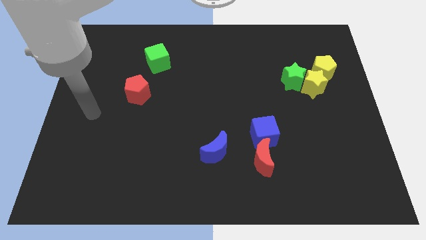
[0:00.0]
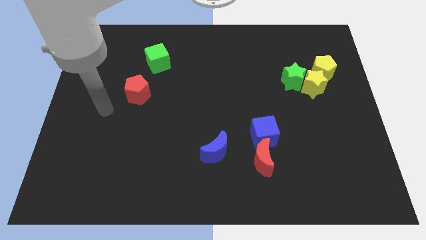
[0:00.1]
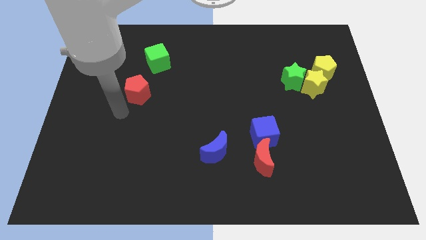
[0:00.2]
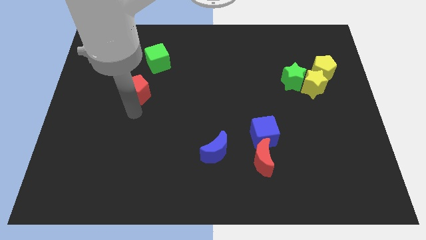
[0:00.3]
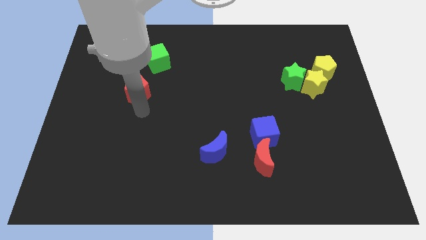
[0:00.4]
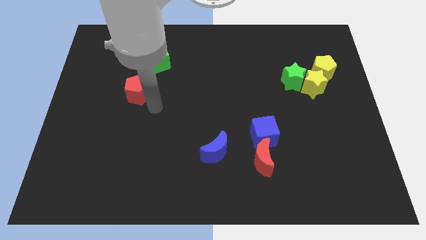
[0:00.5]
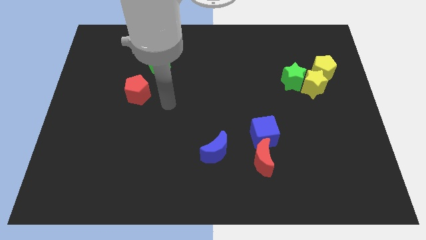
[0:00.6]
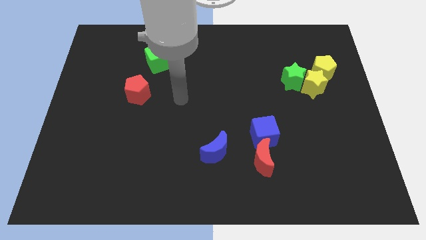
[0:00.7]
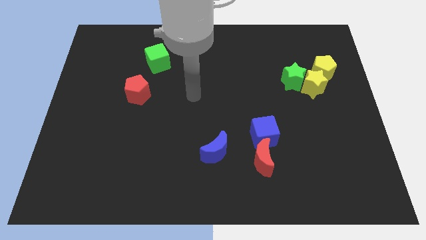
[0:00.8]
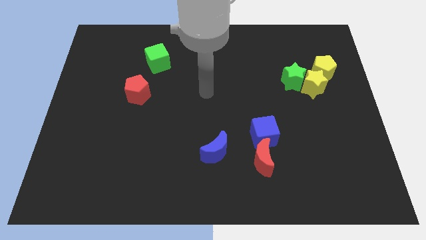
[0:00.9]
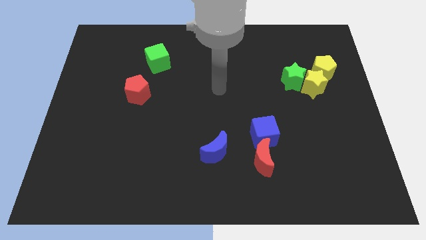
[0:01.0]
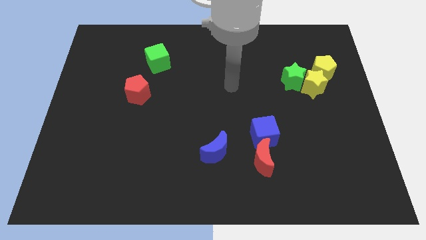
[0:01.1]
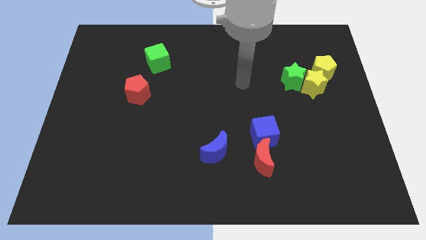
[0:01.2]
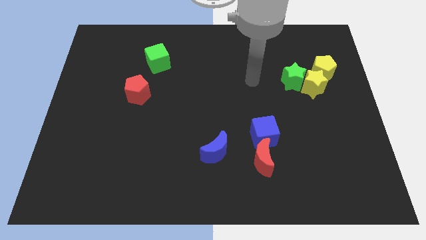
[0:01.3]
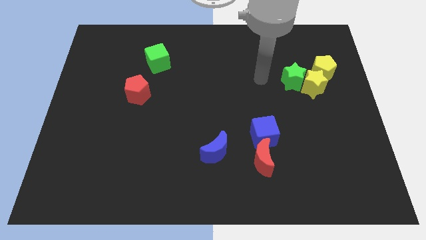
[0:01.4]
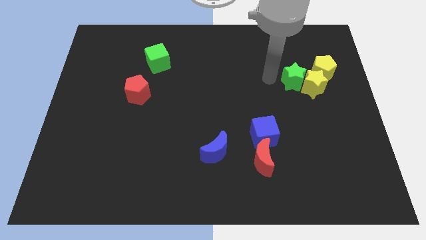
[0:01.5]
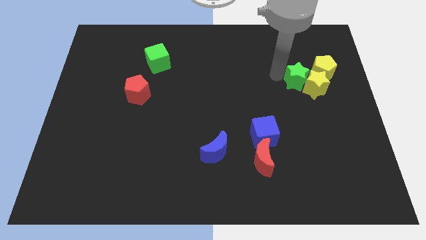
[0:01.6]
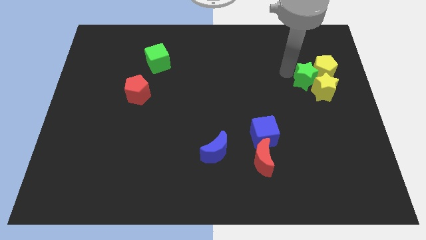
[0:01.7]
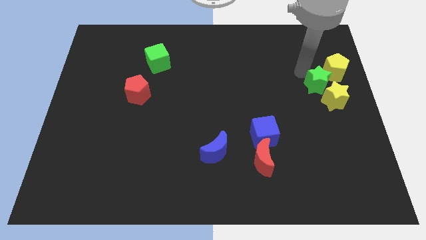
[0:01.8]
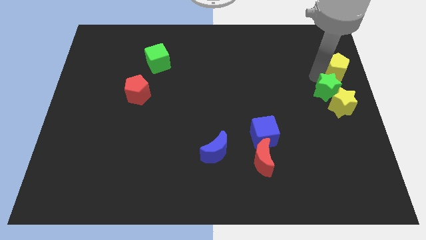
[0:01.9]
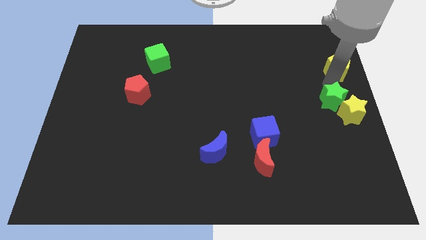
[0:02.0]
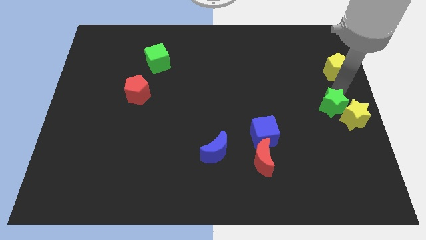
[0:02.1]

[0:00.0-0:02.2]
separate the yellow star from the green star and yellow pentagon

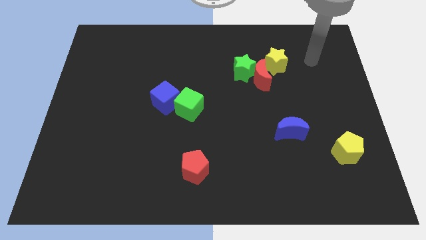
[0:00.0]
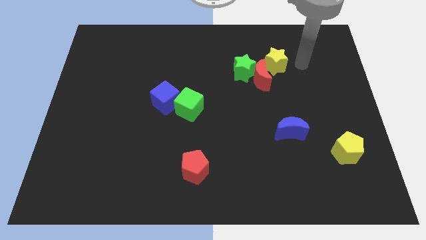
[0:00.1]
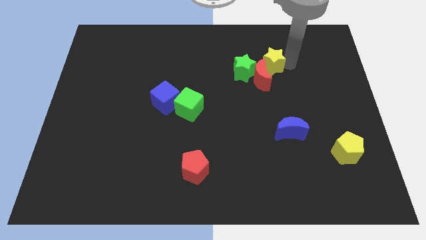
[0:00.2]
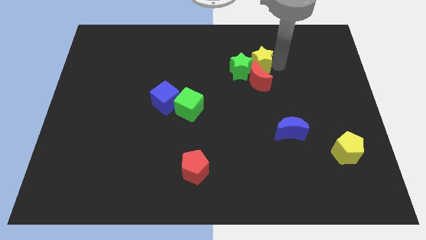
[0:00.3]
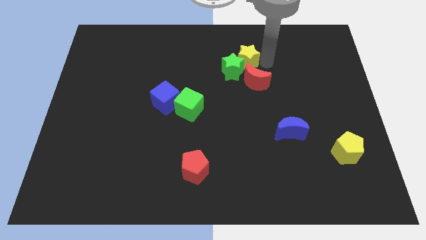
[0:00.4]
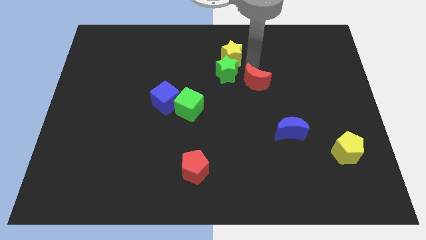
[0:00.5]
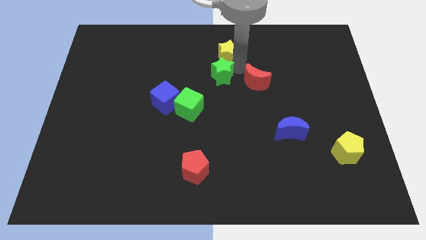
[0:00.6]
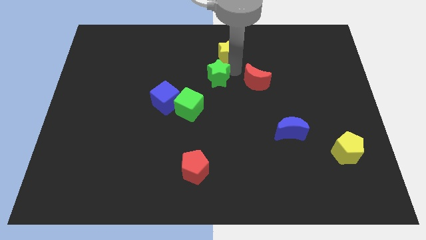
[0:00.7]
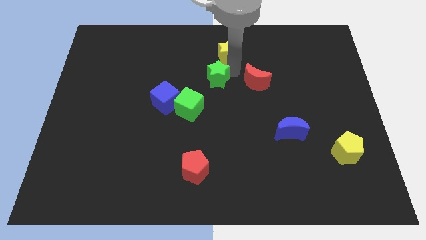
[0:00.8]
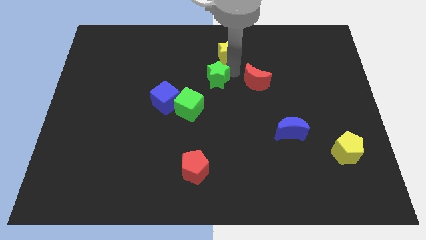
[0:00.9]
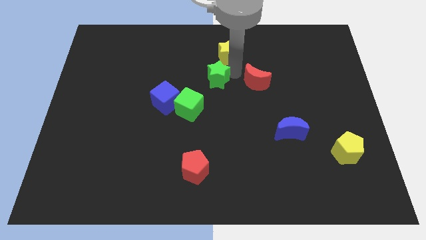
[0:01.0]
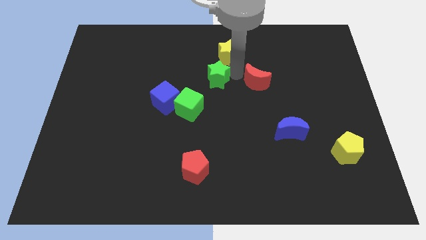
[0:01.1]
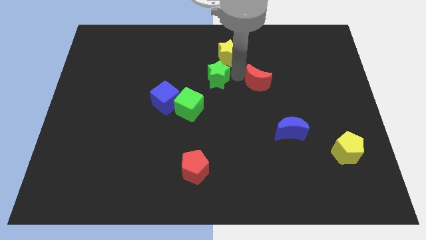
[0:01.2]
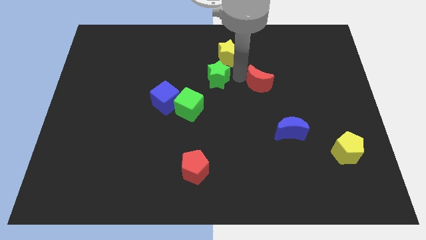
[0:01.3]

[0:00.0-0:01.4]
separate the red moon from the green star and yellow star

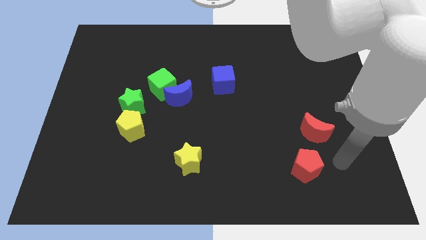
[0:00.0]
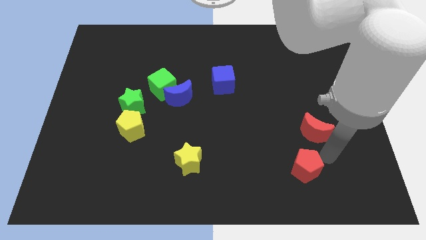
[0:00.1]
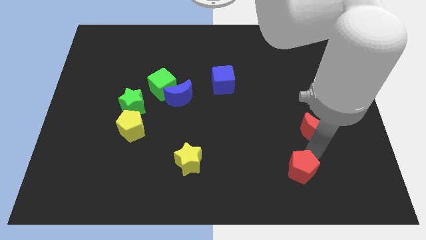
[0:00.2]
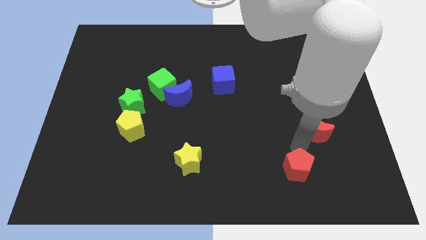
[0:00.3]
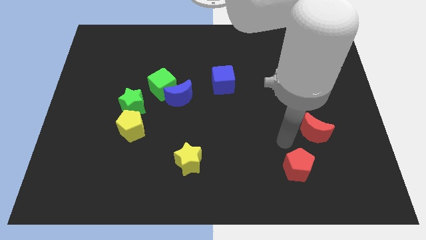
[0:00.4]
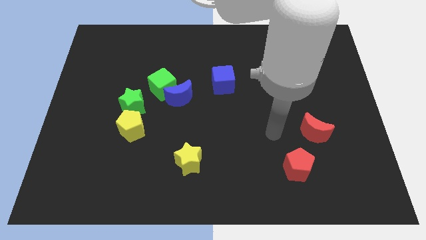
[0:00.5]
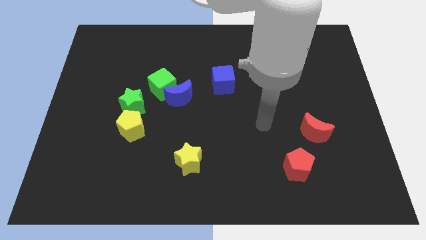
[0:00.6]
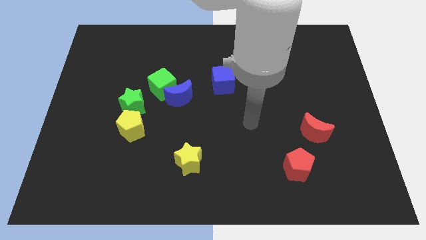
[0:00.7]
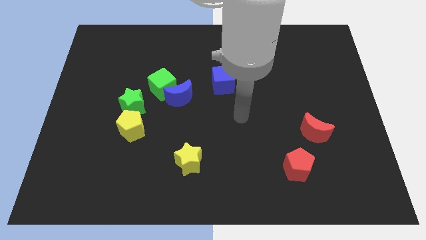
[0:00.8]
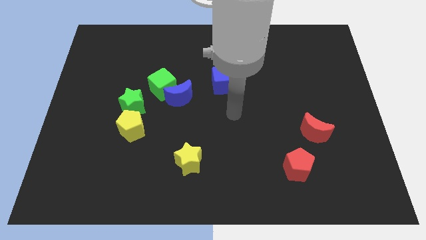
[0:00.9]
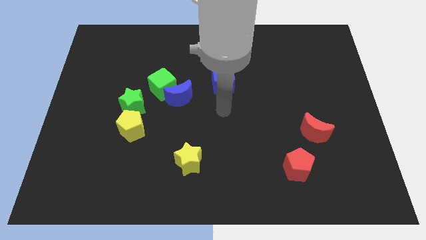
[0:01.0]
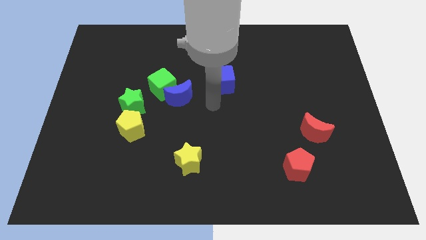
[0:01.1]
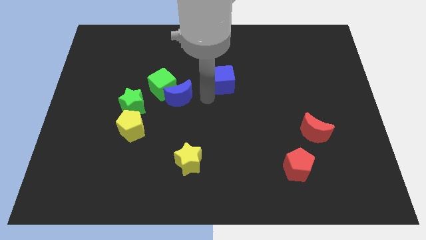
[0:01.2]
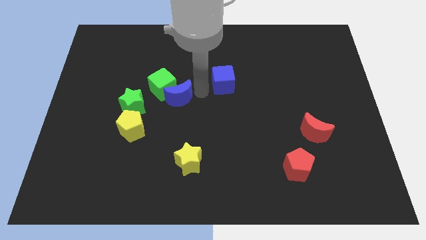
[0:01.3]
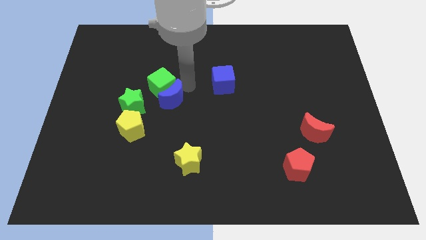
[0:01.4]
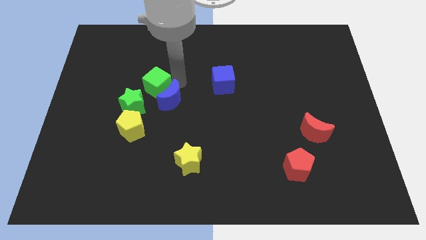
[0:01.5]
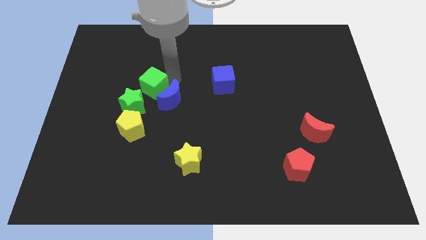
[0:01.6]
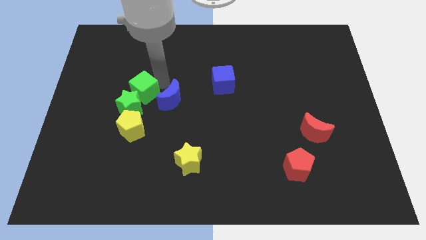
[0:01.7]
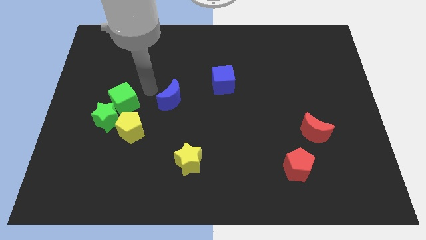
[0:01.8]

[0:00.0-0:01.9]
move the blue moon away from the green cube

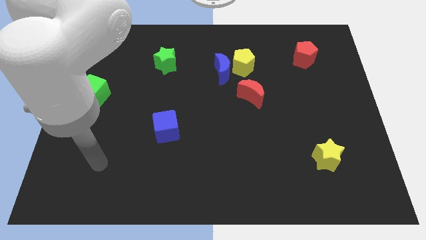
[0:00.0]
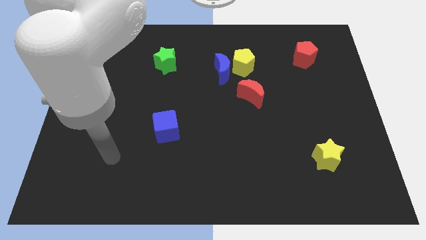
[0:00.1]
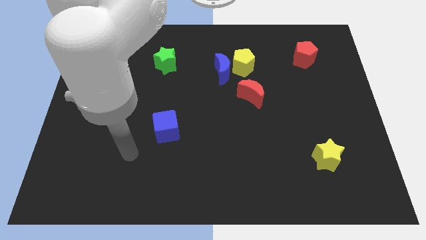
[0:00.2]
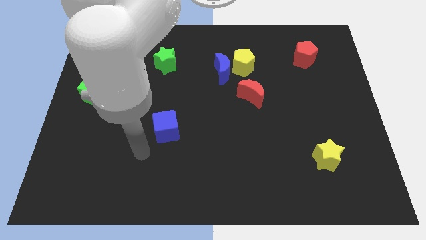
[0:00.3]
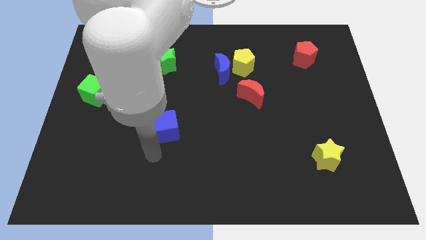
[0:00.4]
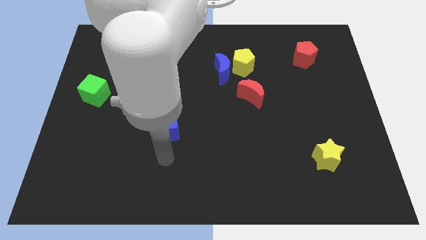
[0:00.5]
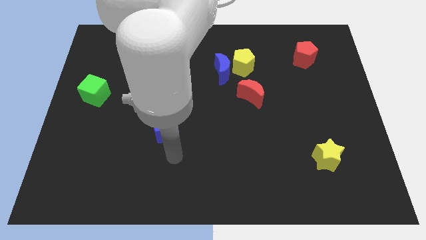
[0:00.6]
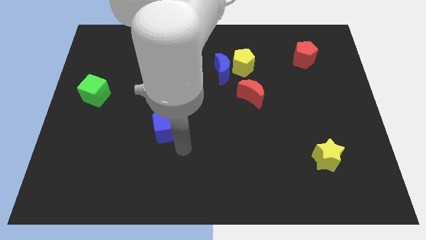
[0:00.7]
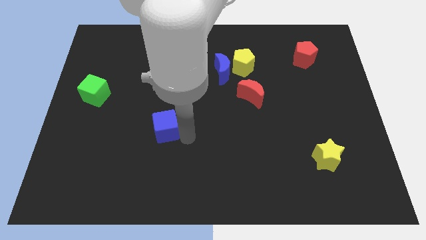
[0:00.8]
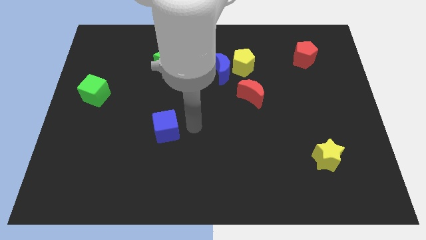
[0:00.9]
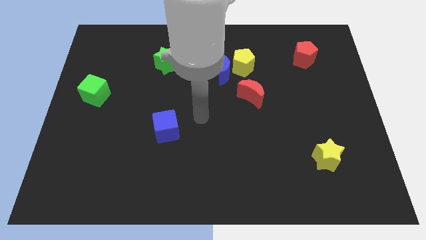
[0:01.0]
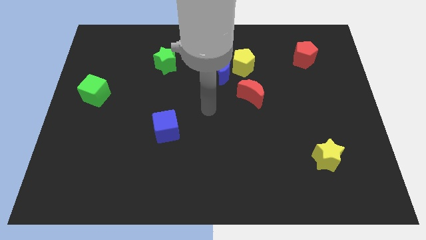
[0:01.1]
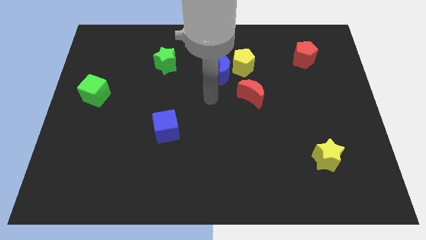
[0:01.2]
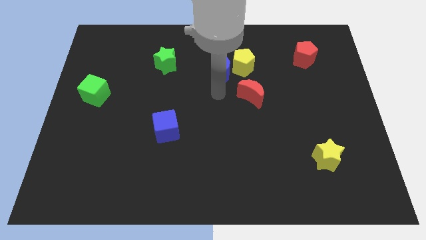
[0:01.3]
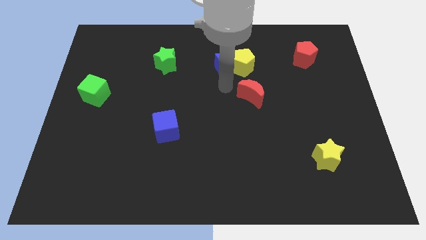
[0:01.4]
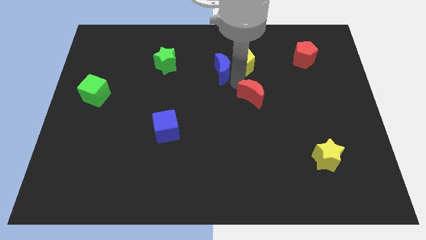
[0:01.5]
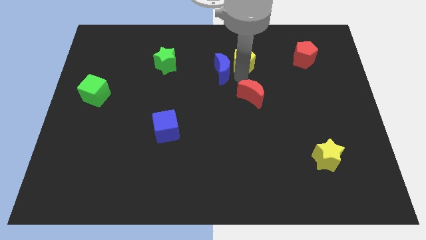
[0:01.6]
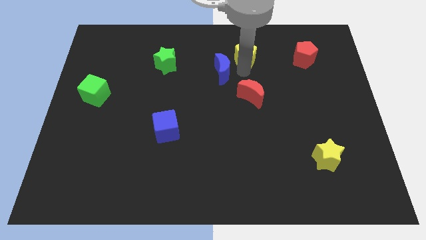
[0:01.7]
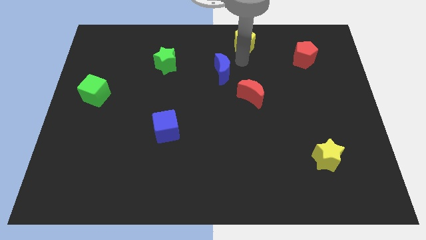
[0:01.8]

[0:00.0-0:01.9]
separate the blue moon from the yellow pentagon

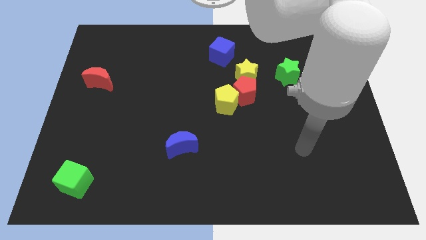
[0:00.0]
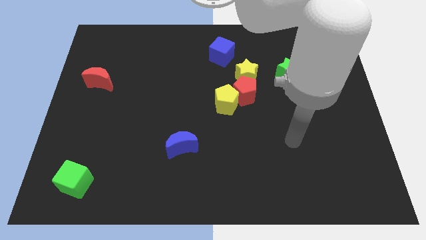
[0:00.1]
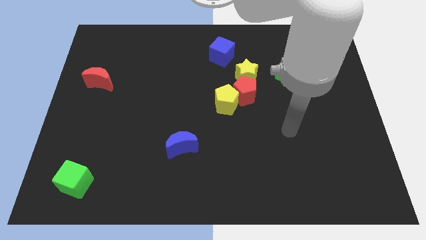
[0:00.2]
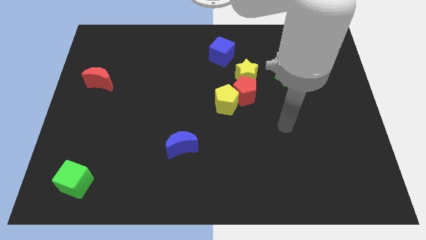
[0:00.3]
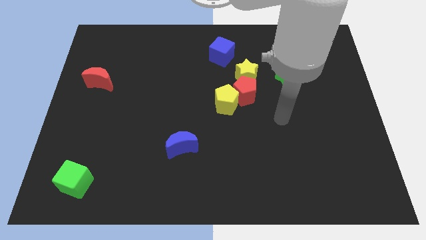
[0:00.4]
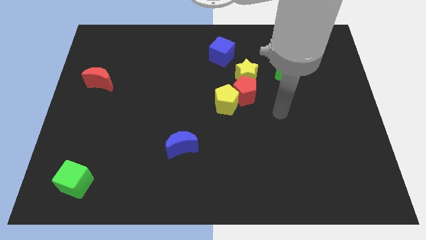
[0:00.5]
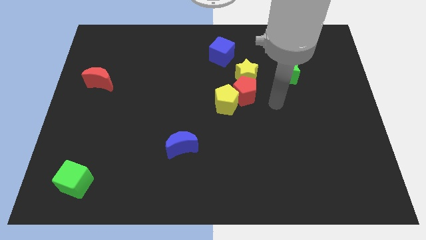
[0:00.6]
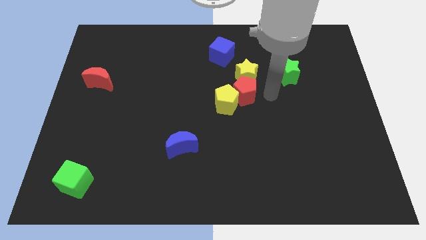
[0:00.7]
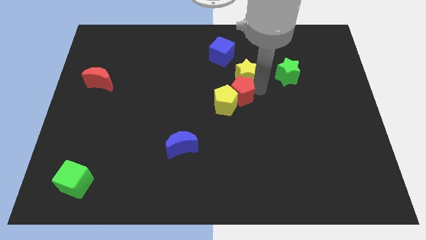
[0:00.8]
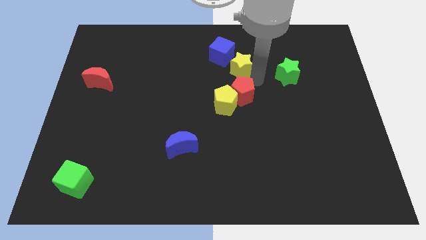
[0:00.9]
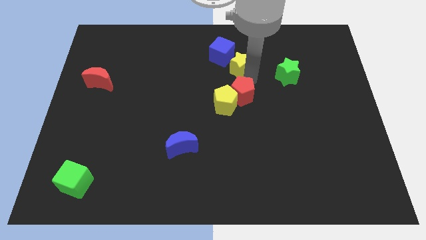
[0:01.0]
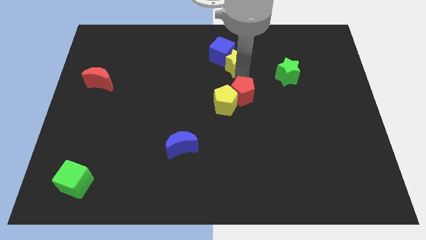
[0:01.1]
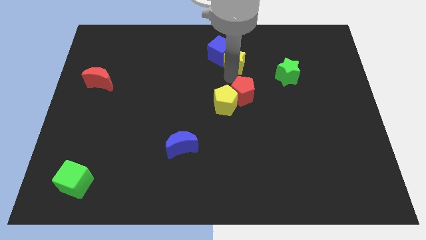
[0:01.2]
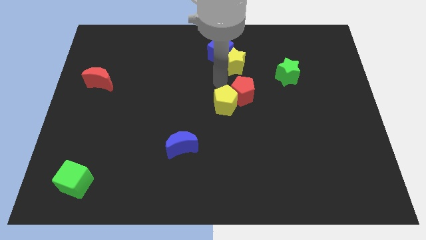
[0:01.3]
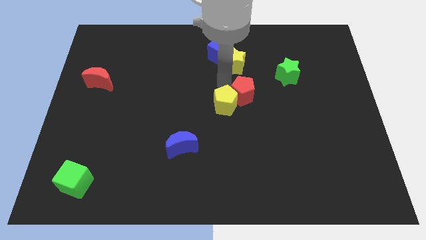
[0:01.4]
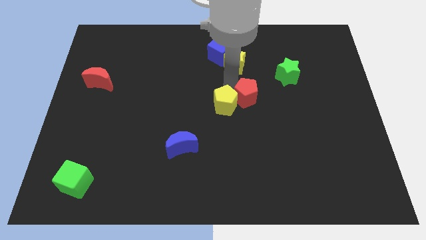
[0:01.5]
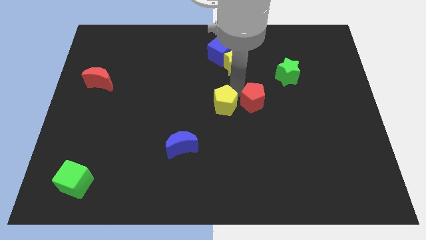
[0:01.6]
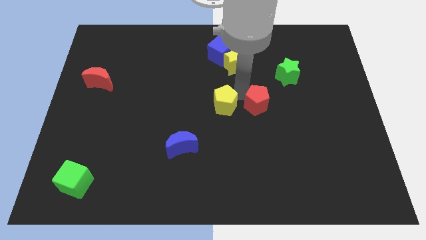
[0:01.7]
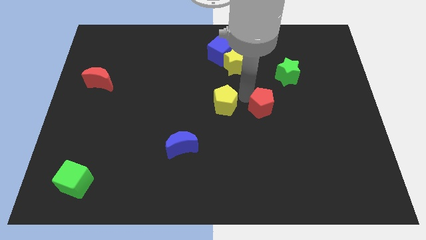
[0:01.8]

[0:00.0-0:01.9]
pull the red pentagon apart from the yellow pentagon and yellow star

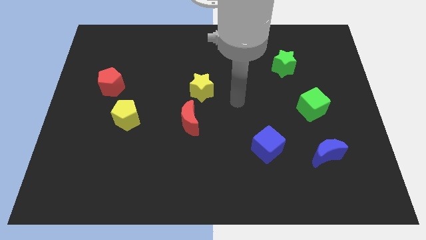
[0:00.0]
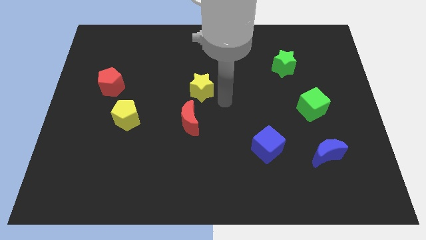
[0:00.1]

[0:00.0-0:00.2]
pull the red moon apart from the yellow star
